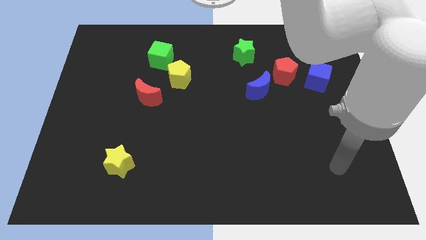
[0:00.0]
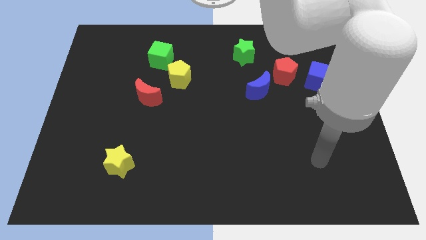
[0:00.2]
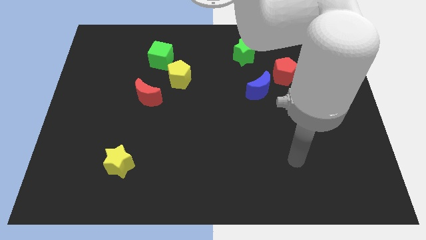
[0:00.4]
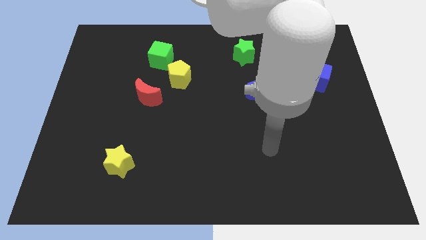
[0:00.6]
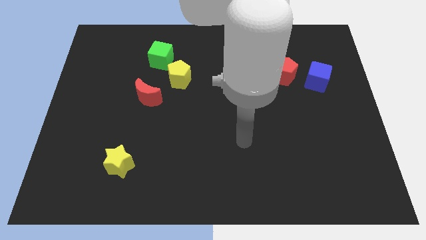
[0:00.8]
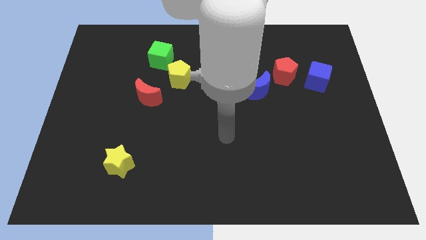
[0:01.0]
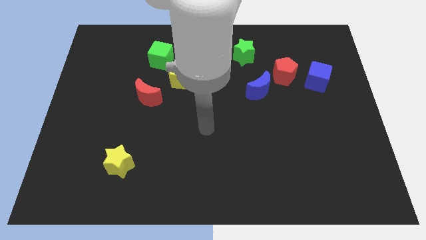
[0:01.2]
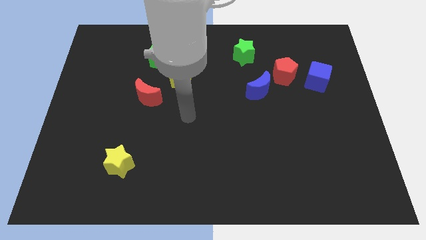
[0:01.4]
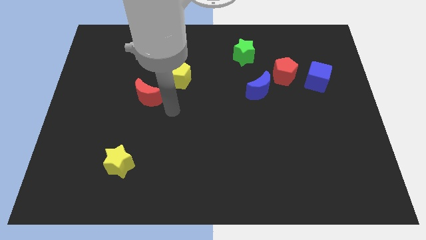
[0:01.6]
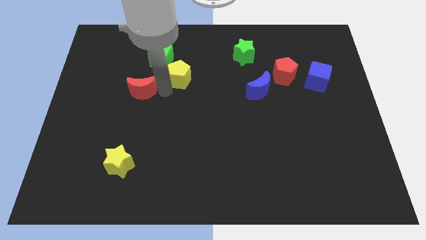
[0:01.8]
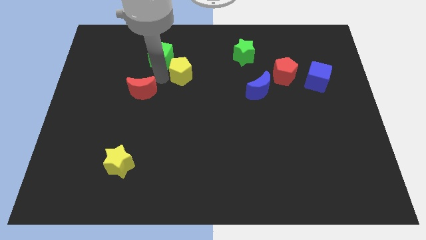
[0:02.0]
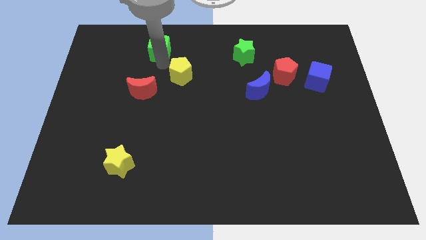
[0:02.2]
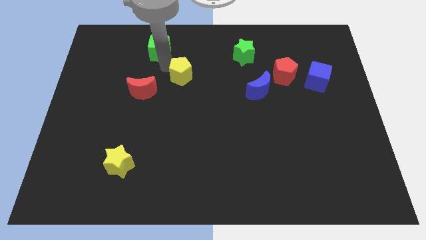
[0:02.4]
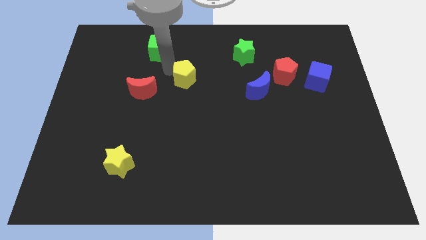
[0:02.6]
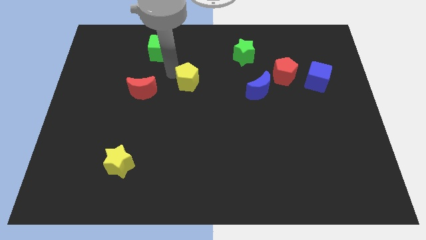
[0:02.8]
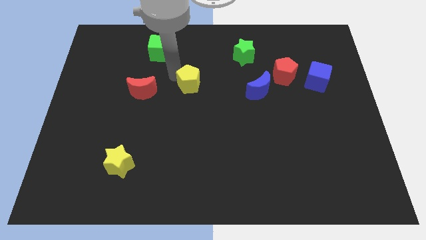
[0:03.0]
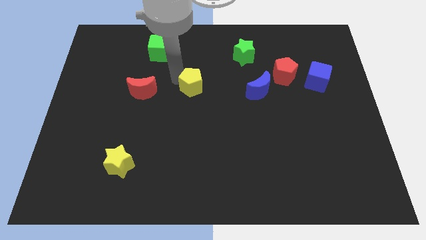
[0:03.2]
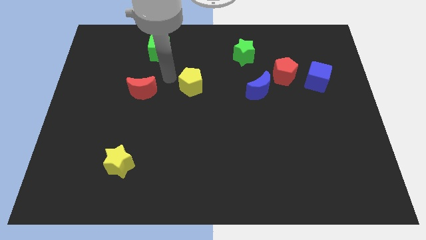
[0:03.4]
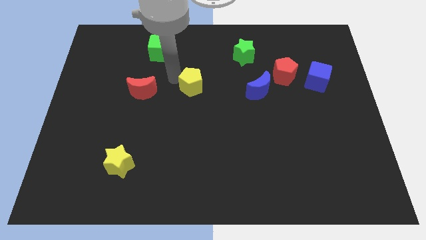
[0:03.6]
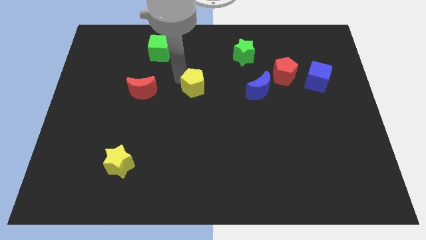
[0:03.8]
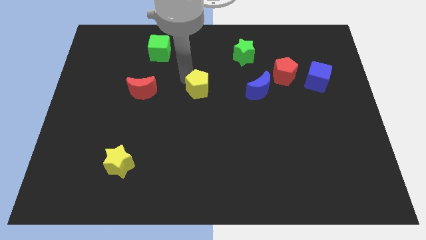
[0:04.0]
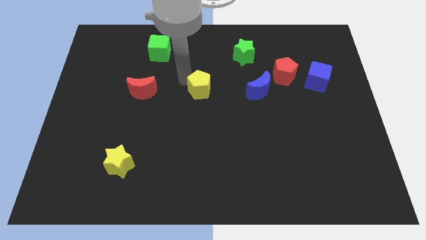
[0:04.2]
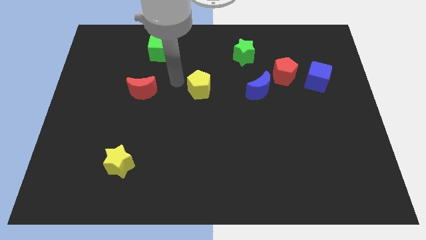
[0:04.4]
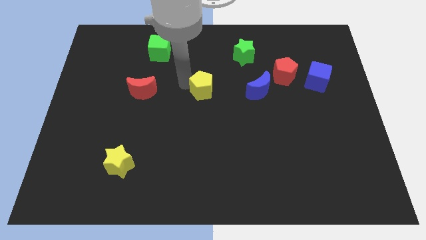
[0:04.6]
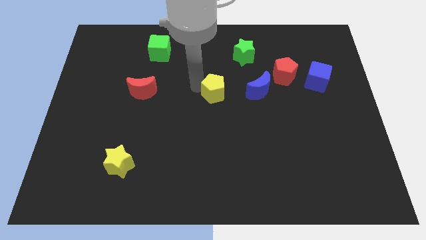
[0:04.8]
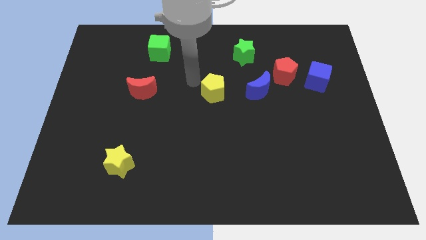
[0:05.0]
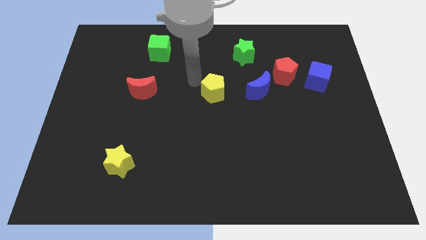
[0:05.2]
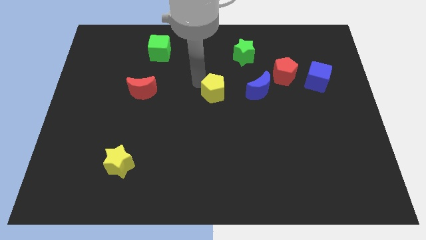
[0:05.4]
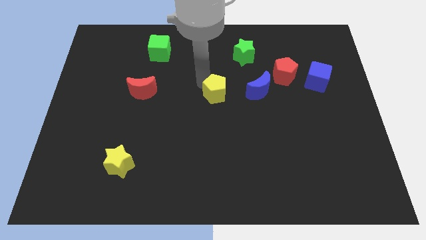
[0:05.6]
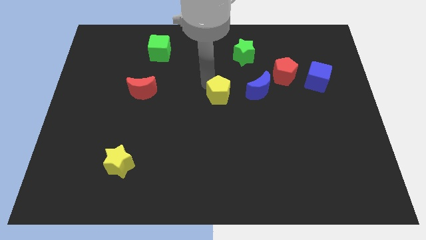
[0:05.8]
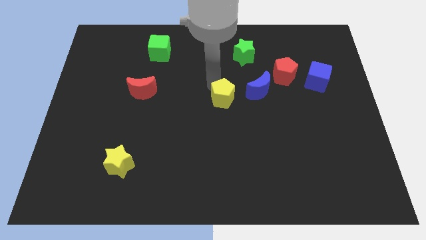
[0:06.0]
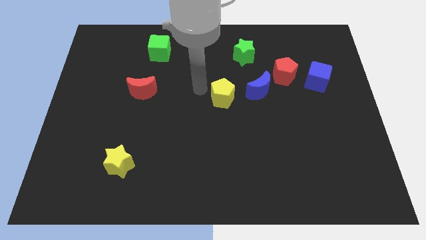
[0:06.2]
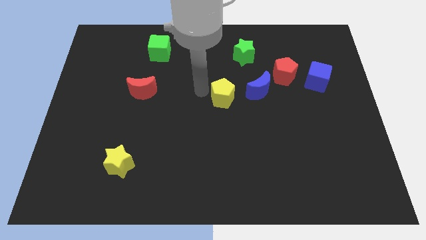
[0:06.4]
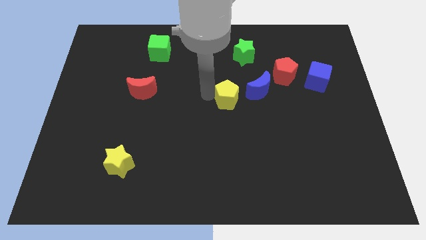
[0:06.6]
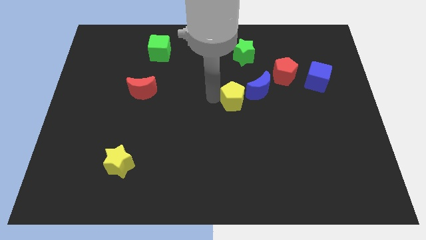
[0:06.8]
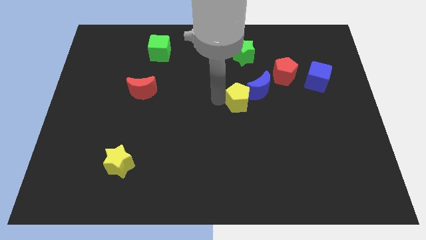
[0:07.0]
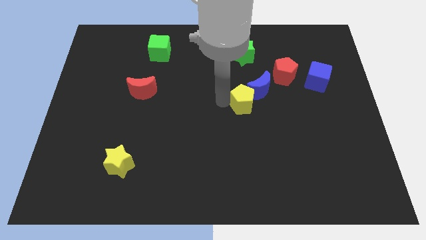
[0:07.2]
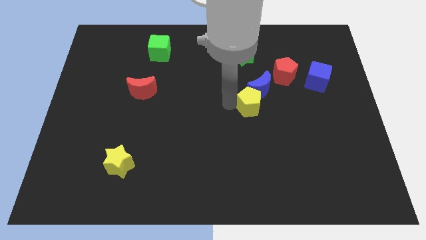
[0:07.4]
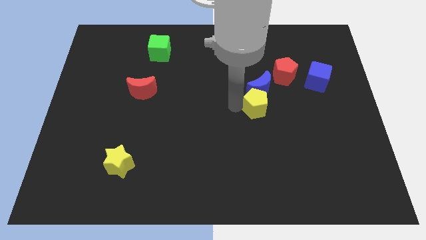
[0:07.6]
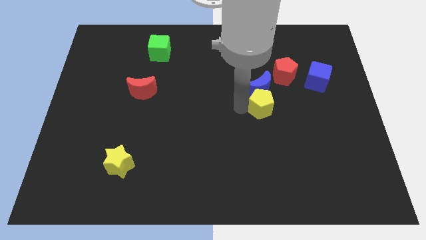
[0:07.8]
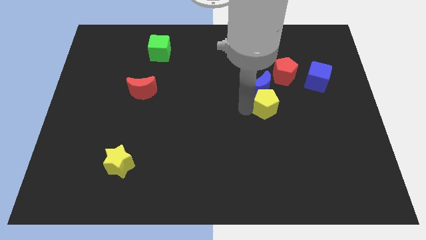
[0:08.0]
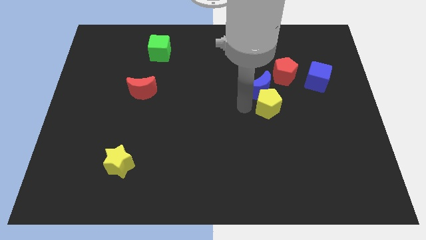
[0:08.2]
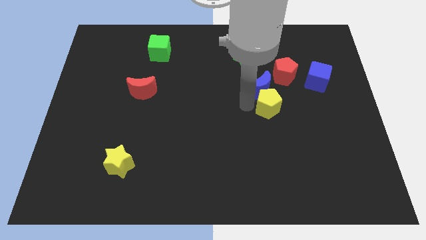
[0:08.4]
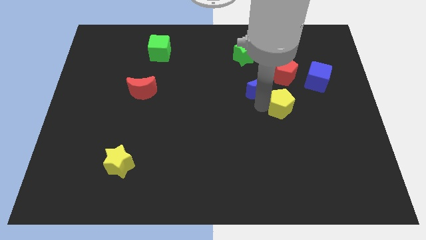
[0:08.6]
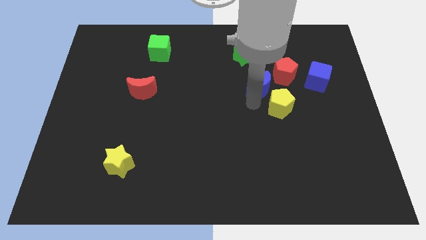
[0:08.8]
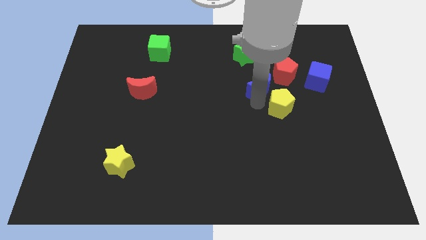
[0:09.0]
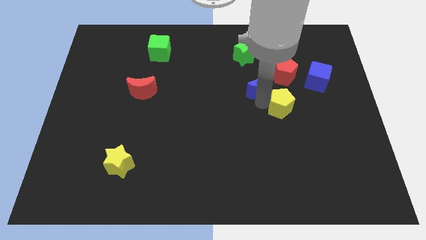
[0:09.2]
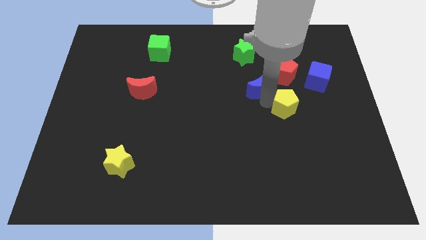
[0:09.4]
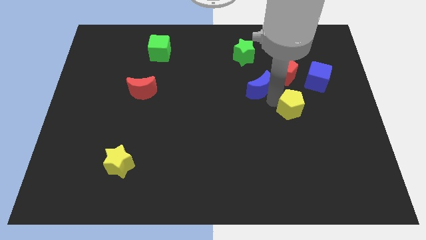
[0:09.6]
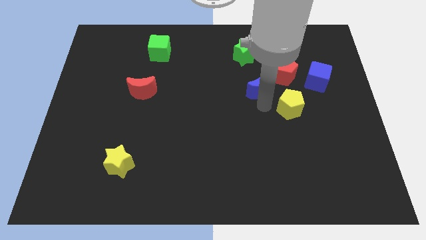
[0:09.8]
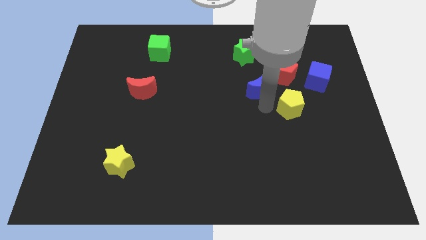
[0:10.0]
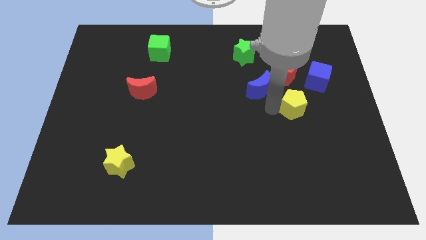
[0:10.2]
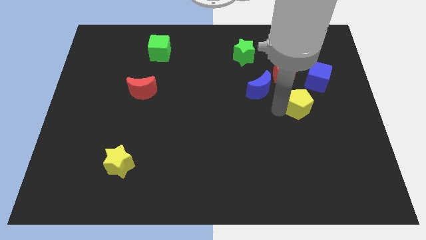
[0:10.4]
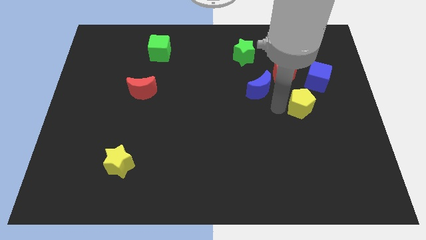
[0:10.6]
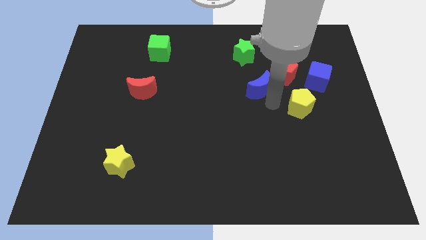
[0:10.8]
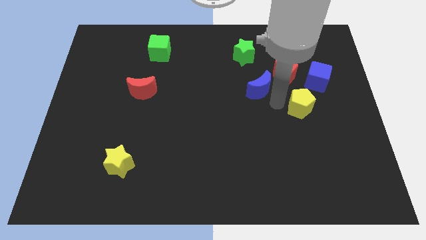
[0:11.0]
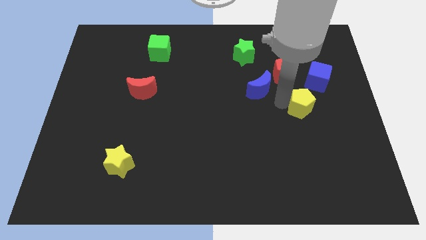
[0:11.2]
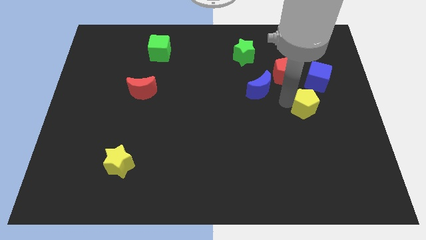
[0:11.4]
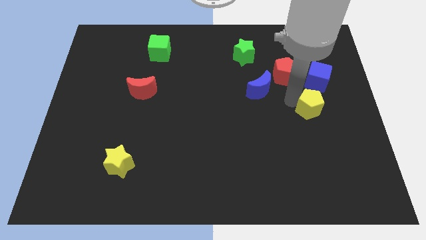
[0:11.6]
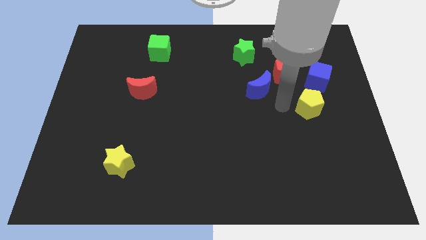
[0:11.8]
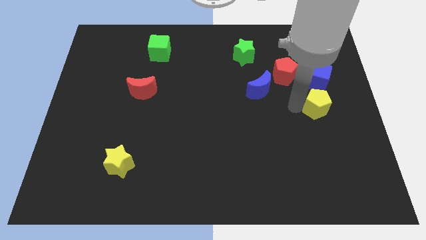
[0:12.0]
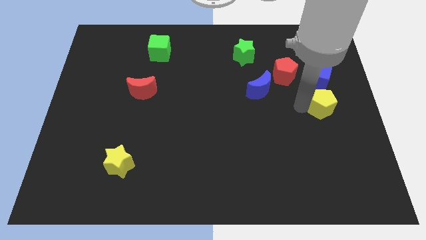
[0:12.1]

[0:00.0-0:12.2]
push the yellow pentagon to the right side of the board

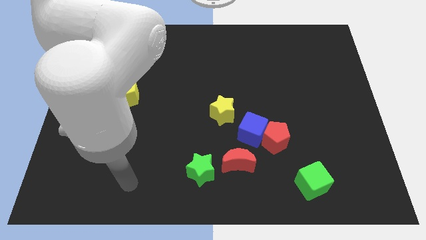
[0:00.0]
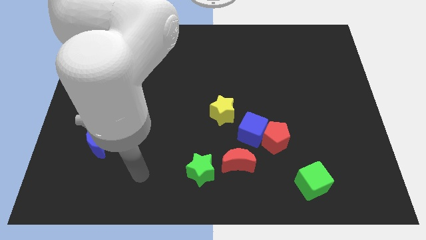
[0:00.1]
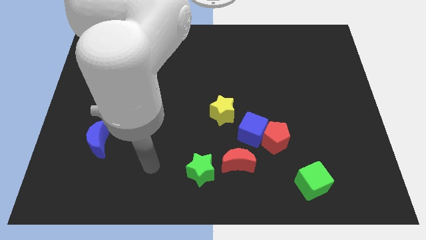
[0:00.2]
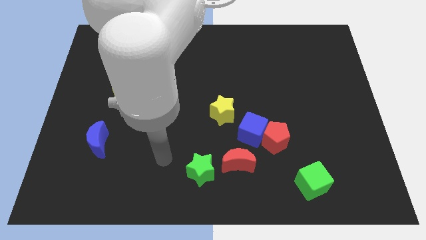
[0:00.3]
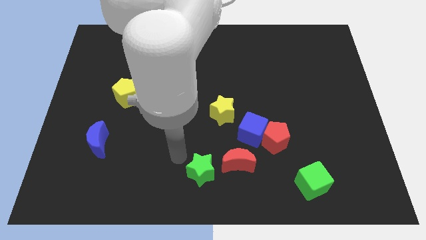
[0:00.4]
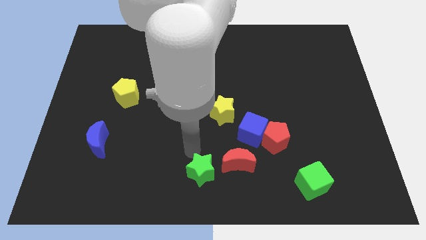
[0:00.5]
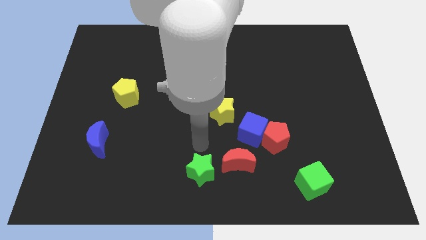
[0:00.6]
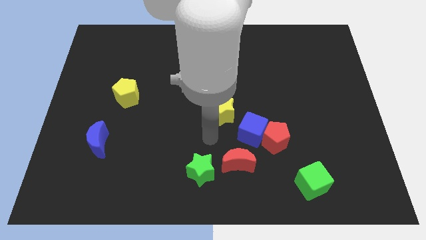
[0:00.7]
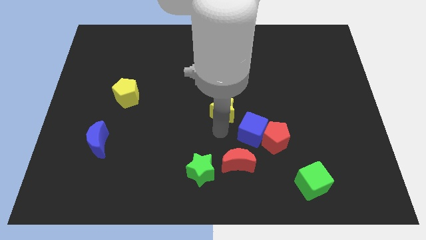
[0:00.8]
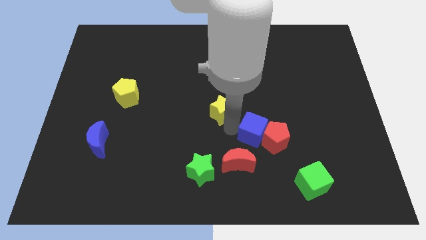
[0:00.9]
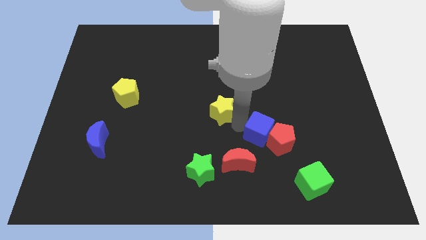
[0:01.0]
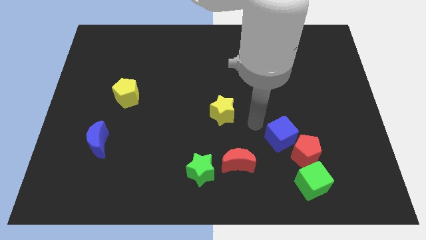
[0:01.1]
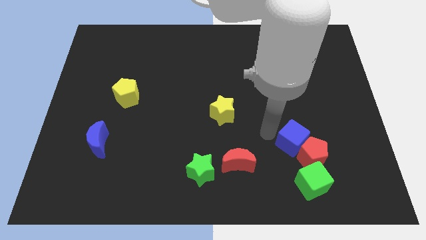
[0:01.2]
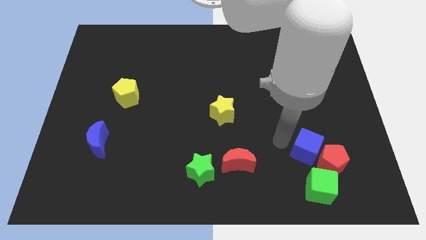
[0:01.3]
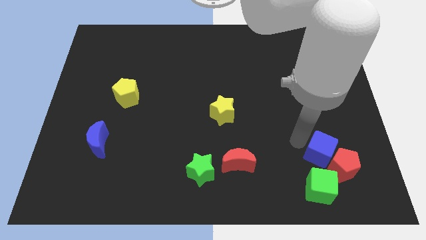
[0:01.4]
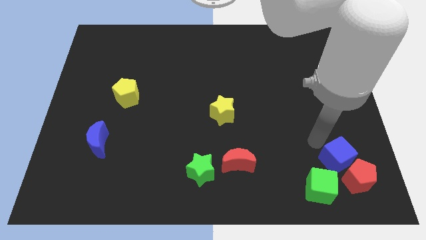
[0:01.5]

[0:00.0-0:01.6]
push the red pentagon to the lower right corner

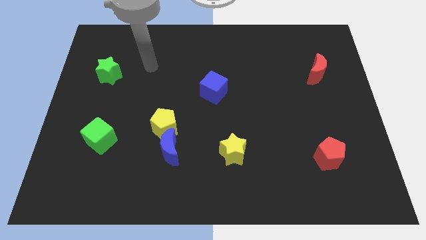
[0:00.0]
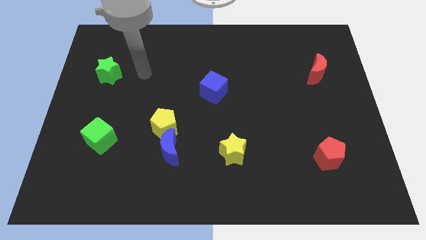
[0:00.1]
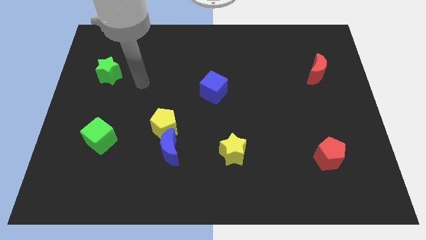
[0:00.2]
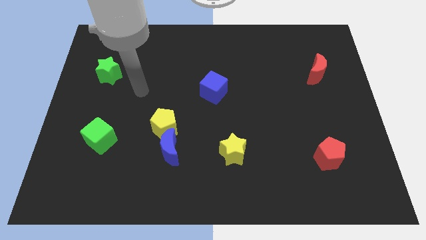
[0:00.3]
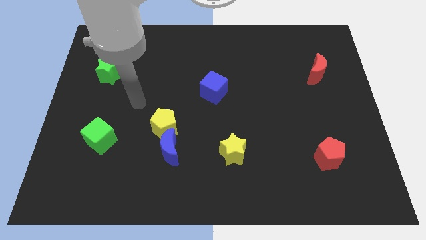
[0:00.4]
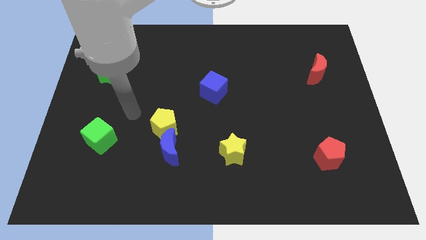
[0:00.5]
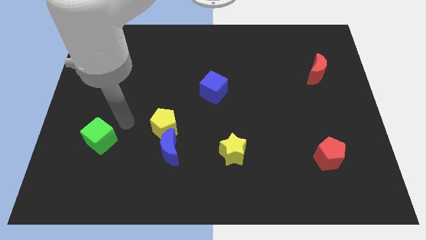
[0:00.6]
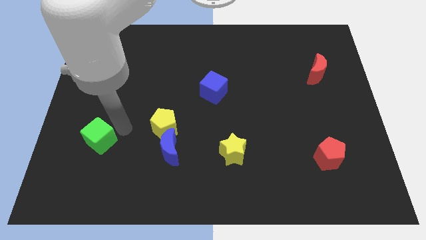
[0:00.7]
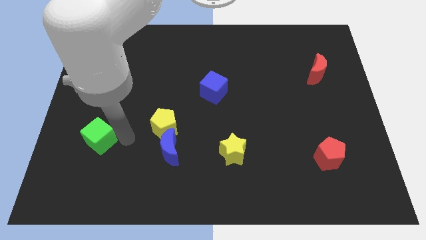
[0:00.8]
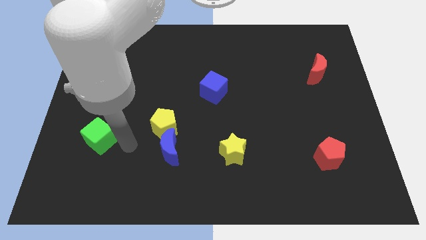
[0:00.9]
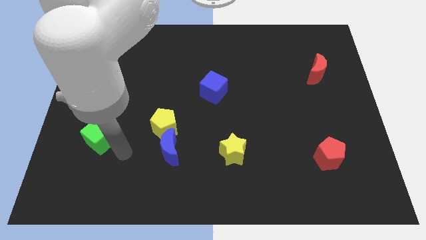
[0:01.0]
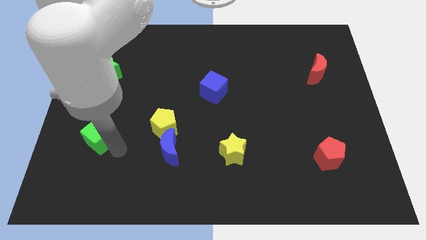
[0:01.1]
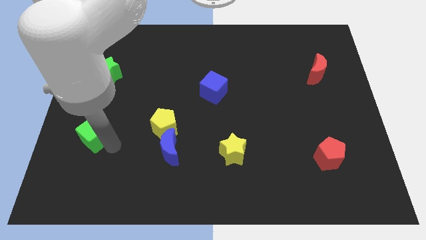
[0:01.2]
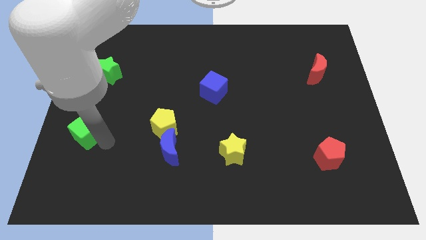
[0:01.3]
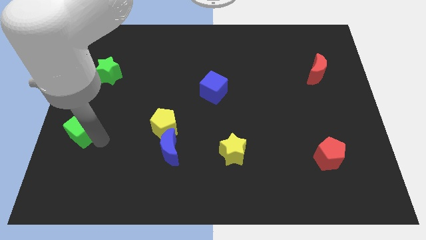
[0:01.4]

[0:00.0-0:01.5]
slide the green cube to the center left
